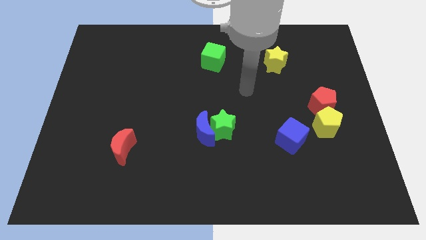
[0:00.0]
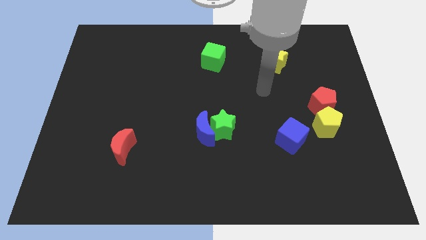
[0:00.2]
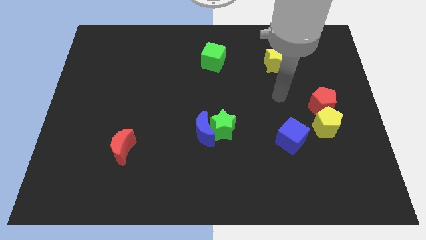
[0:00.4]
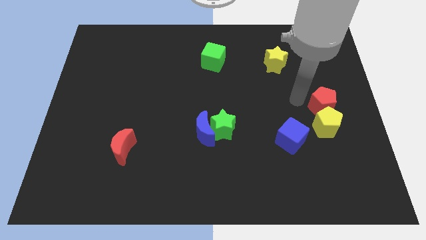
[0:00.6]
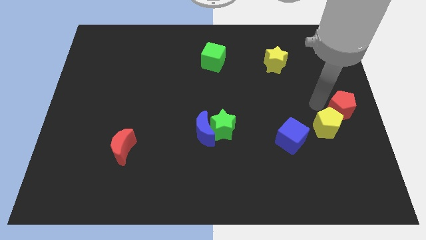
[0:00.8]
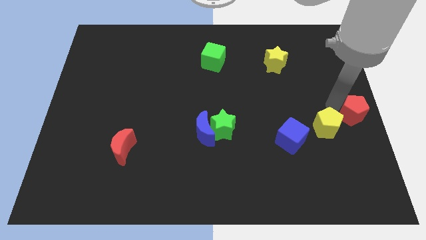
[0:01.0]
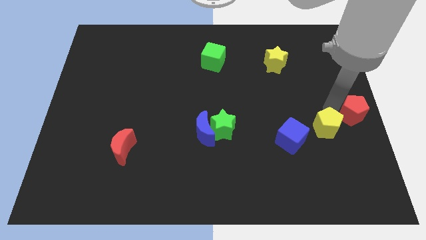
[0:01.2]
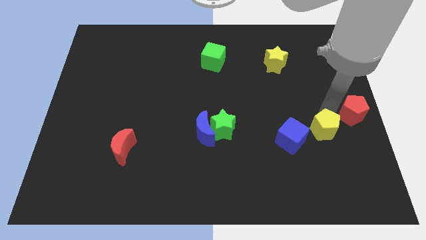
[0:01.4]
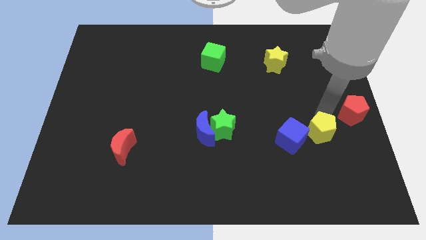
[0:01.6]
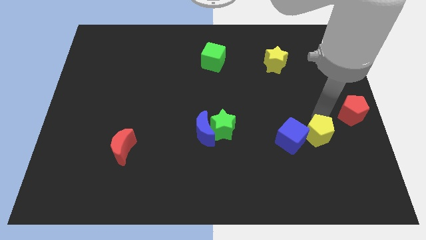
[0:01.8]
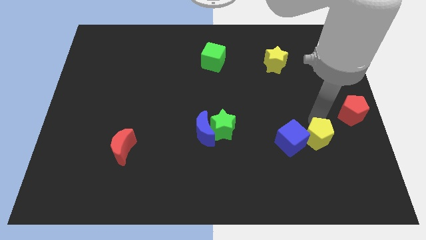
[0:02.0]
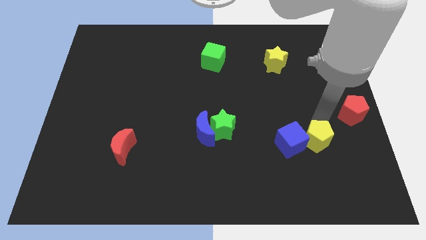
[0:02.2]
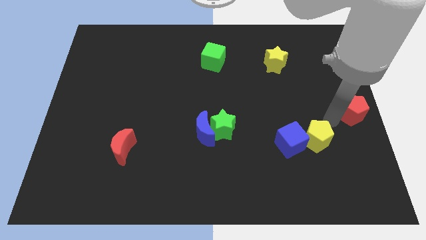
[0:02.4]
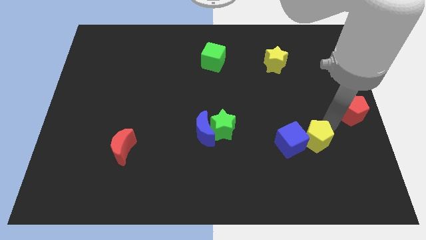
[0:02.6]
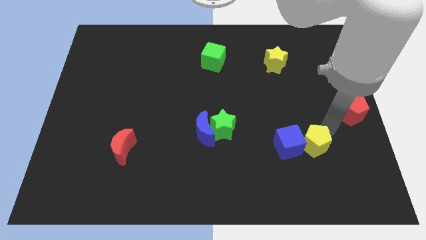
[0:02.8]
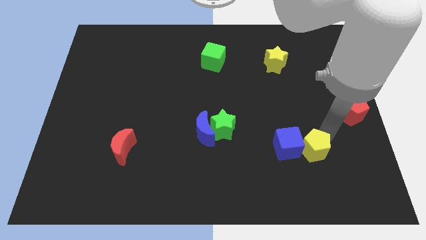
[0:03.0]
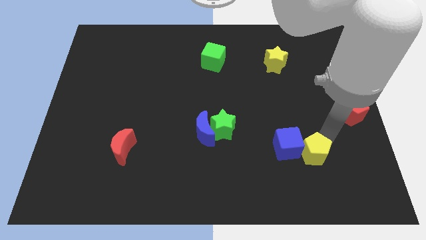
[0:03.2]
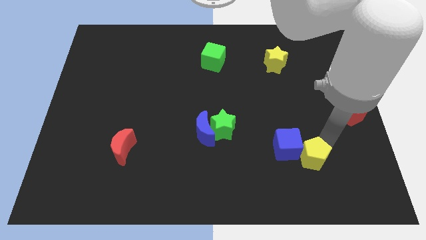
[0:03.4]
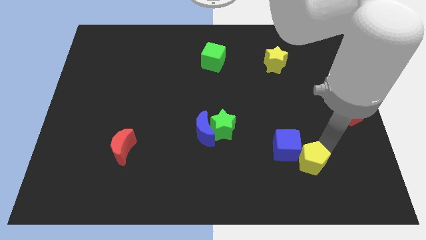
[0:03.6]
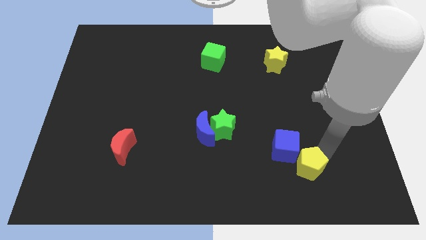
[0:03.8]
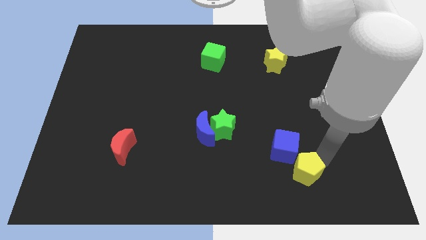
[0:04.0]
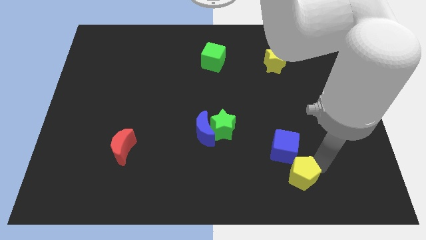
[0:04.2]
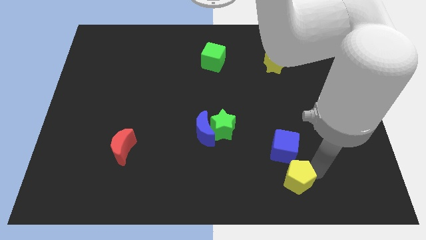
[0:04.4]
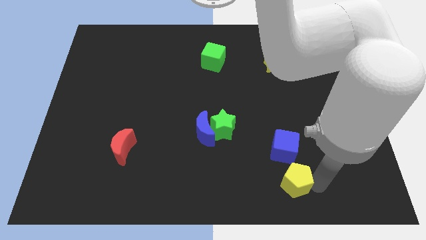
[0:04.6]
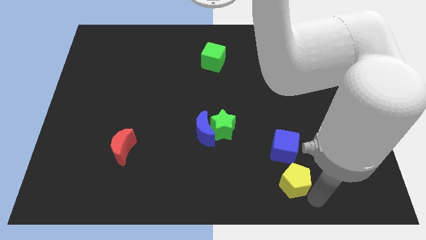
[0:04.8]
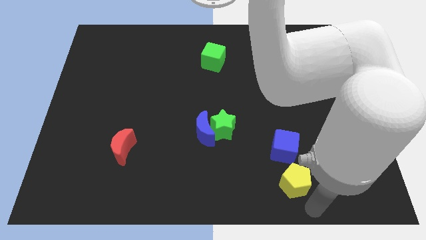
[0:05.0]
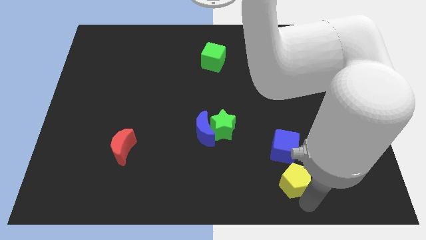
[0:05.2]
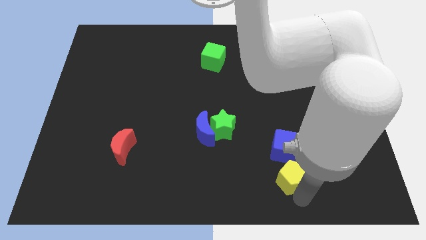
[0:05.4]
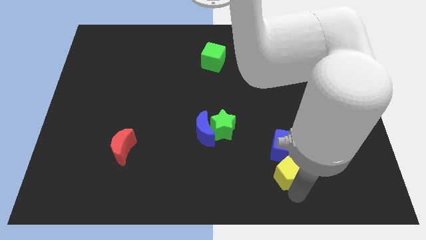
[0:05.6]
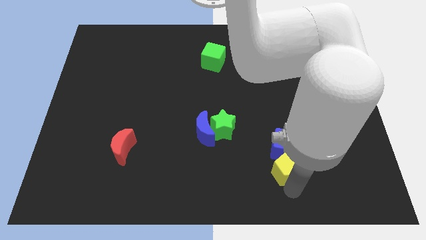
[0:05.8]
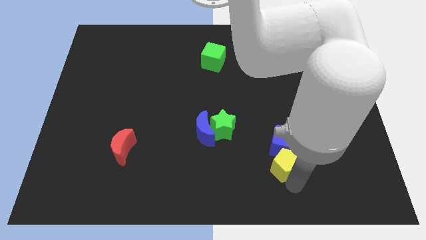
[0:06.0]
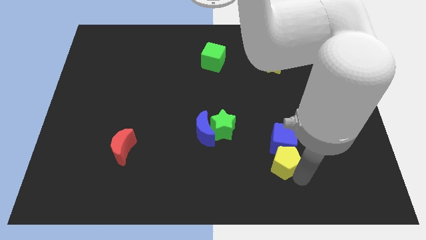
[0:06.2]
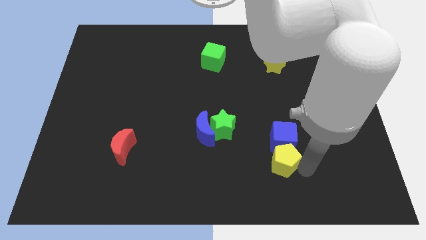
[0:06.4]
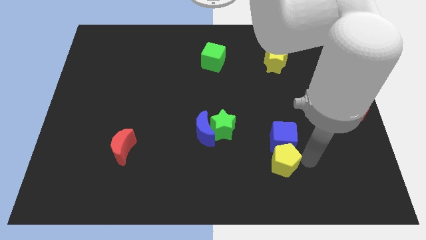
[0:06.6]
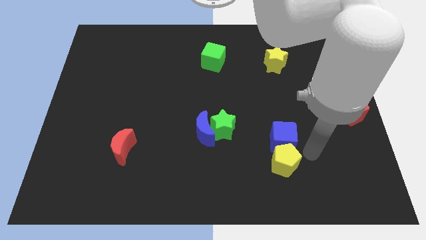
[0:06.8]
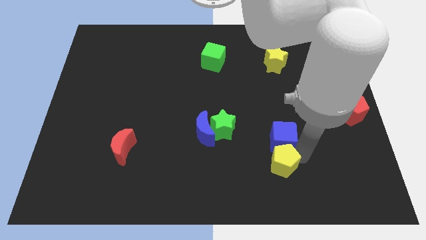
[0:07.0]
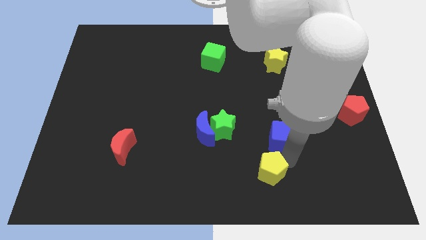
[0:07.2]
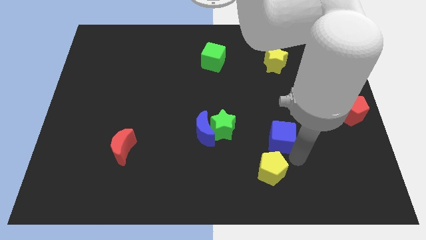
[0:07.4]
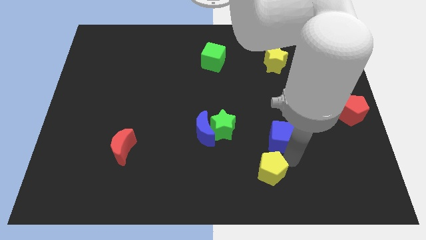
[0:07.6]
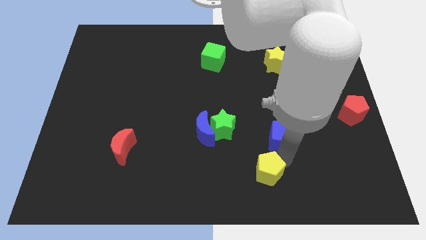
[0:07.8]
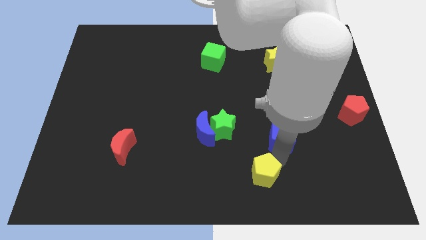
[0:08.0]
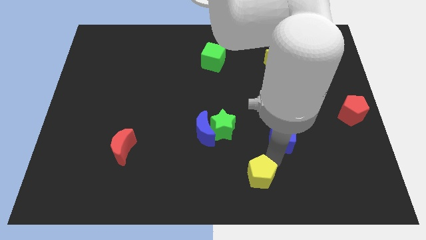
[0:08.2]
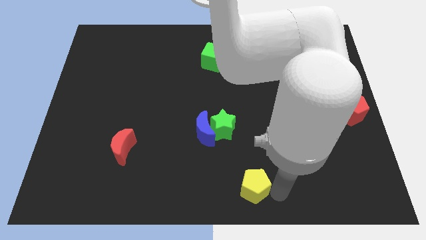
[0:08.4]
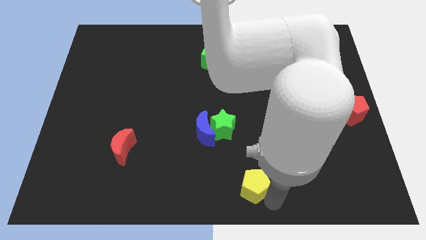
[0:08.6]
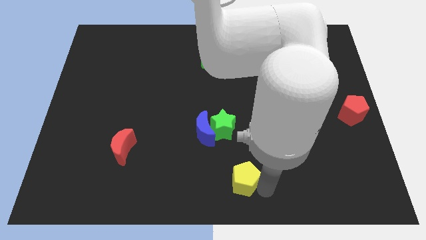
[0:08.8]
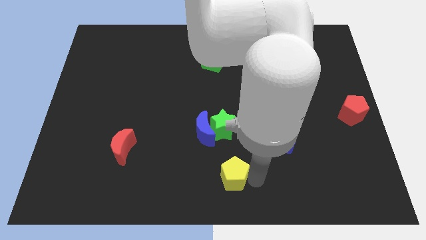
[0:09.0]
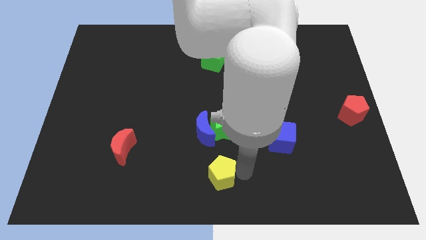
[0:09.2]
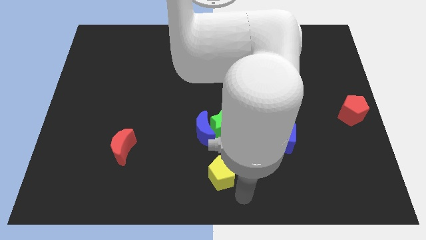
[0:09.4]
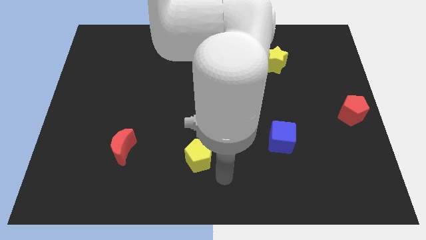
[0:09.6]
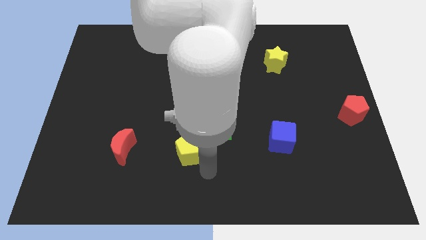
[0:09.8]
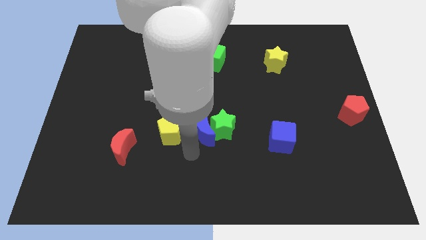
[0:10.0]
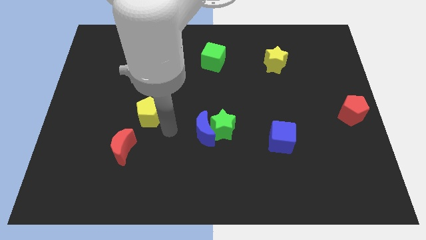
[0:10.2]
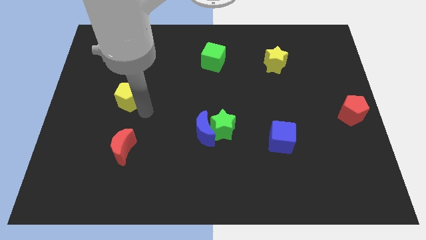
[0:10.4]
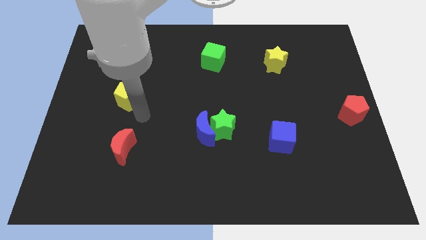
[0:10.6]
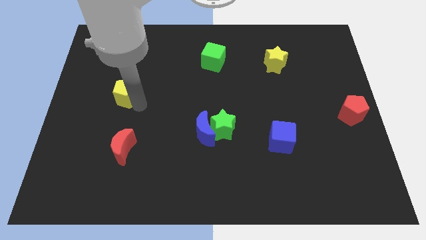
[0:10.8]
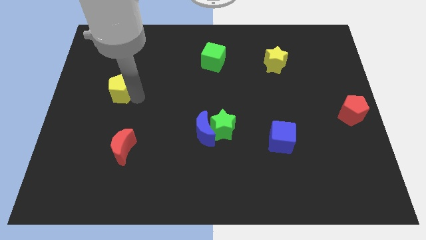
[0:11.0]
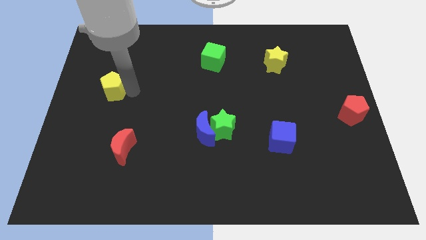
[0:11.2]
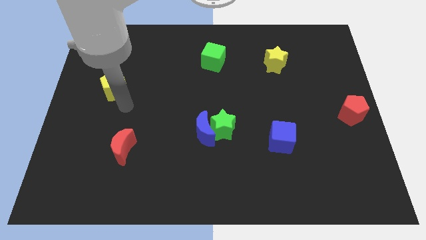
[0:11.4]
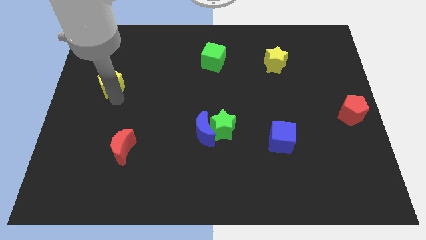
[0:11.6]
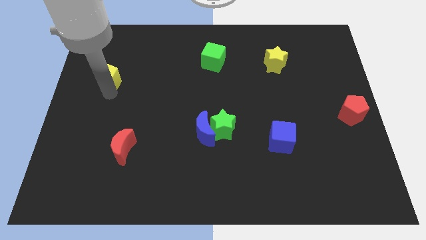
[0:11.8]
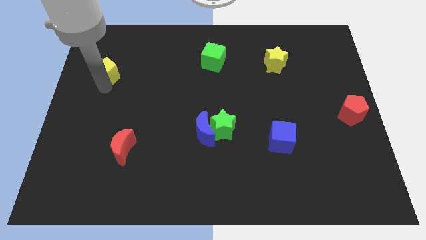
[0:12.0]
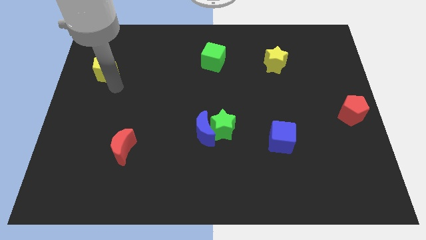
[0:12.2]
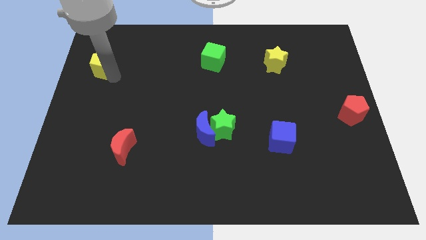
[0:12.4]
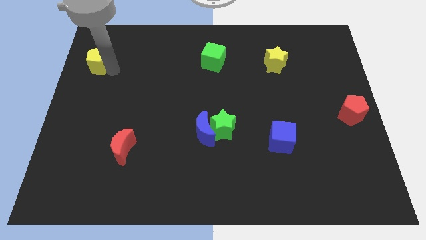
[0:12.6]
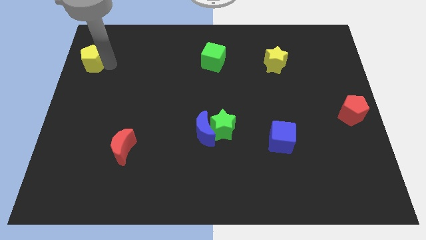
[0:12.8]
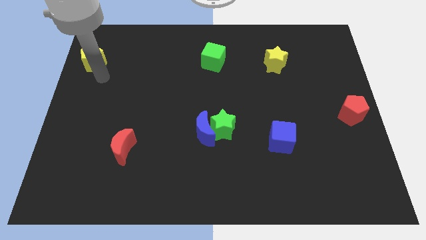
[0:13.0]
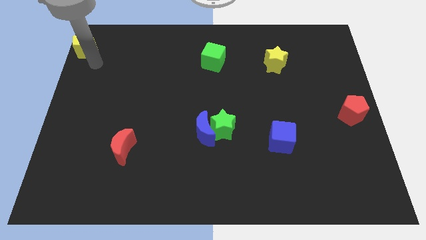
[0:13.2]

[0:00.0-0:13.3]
push the yellow pentagon to the top left corner

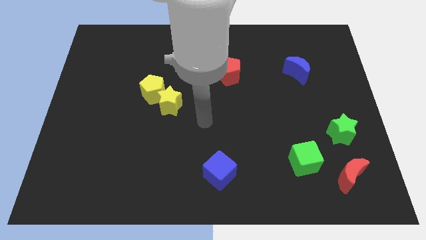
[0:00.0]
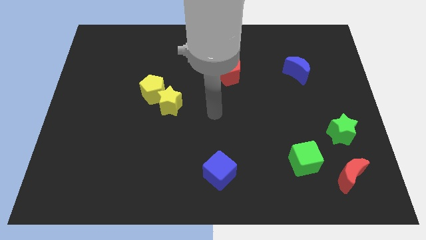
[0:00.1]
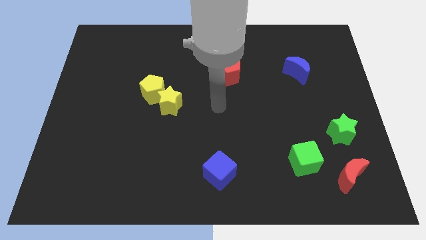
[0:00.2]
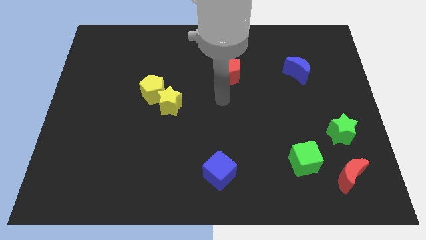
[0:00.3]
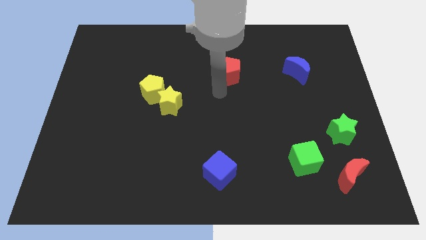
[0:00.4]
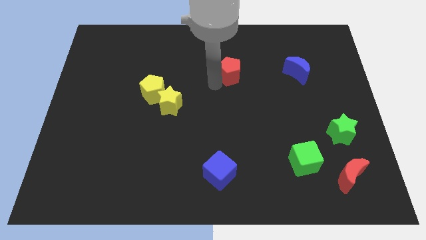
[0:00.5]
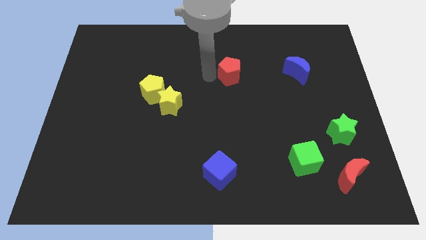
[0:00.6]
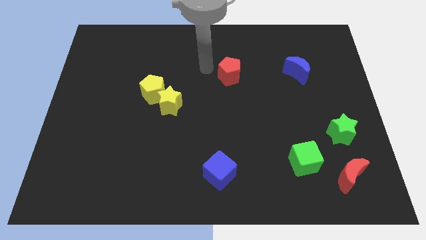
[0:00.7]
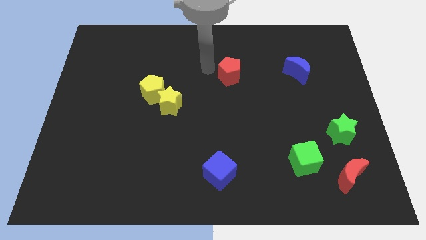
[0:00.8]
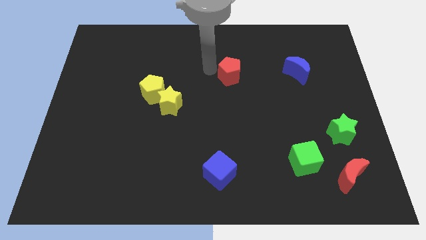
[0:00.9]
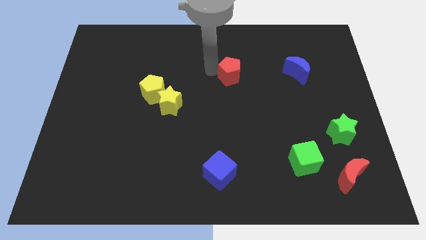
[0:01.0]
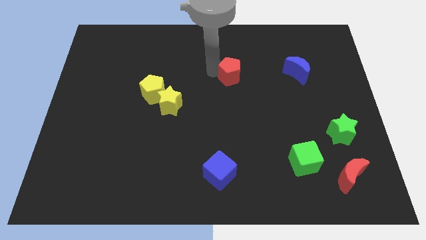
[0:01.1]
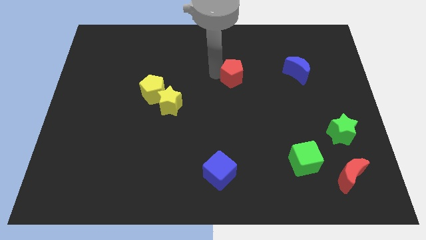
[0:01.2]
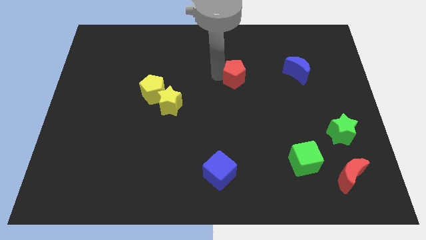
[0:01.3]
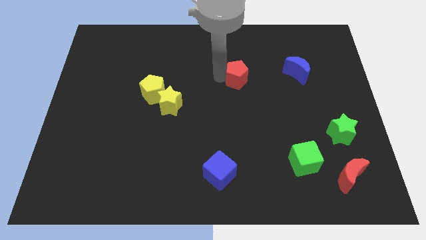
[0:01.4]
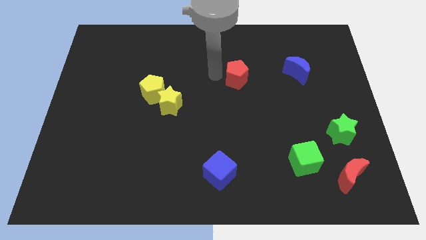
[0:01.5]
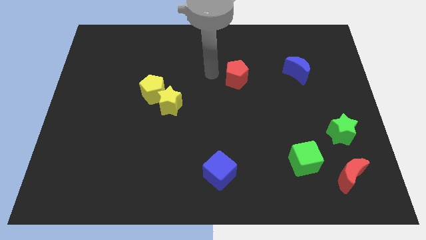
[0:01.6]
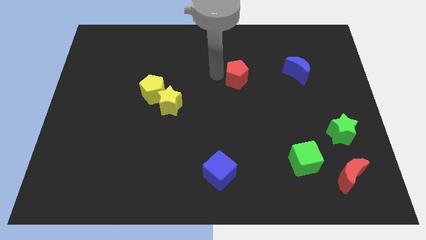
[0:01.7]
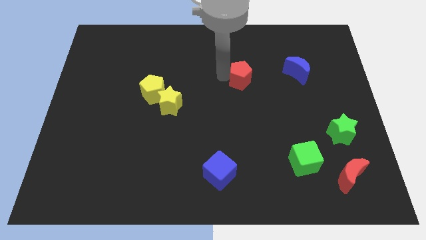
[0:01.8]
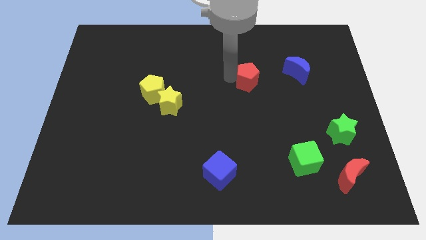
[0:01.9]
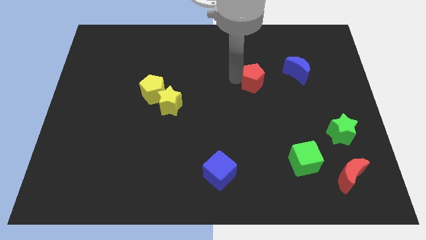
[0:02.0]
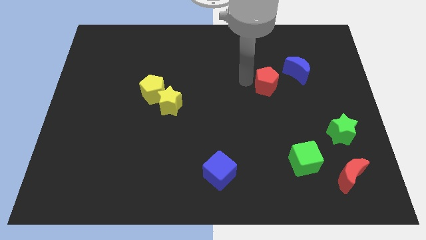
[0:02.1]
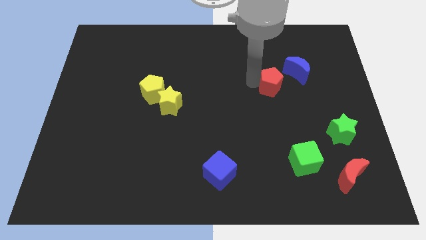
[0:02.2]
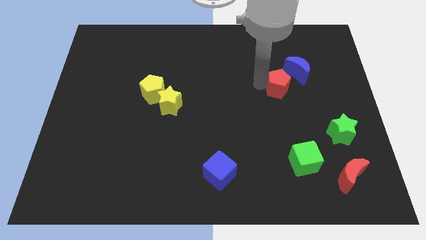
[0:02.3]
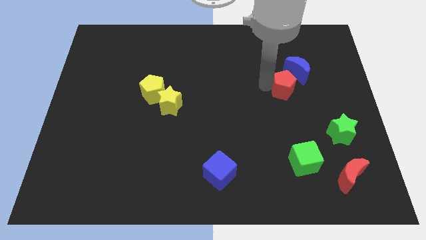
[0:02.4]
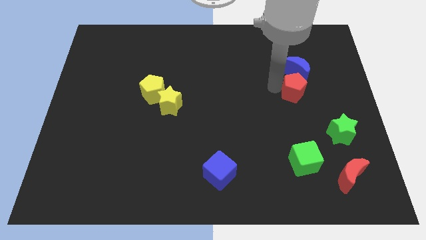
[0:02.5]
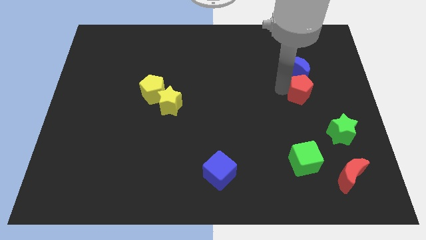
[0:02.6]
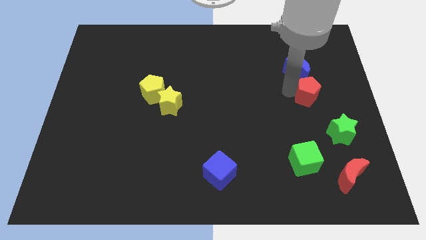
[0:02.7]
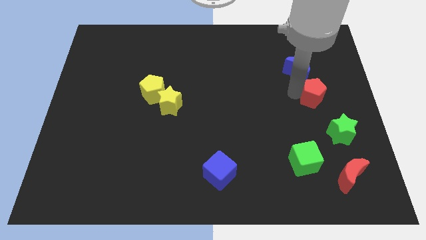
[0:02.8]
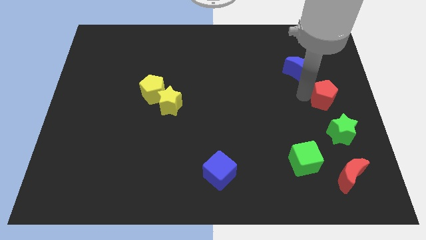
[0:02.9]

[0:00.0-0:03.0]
move the red pentagon to the center right
